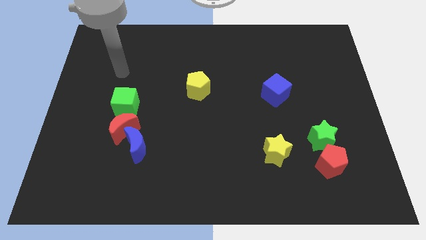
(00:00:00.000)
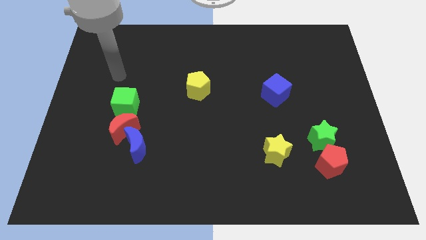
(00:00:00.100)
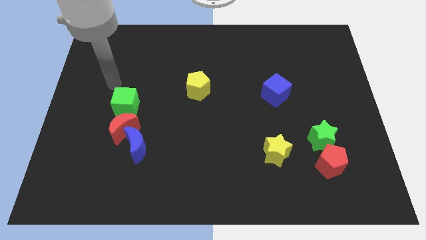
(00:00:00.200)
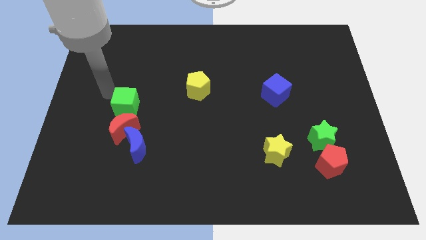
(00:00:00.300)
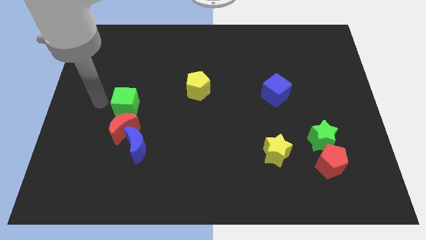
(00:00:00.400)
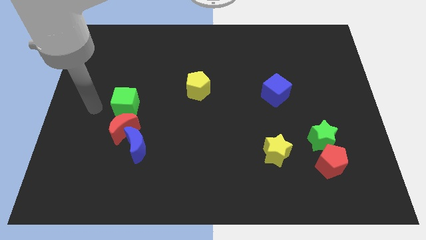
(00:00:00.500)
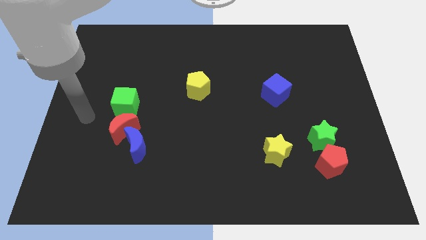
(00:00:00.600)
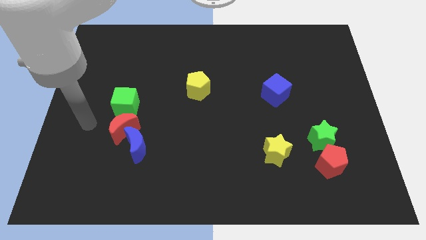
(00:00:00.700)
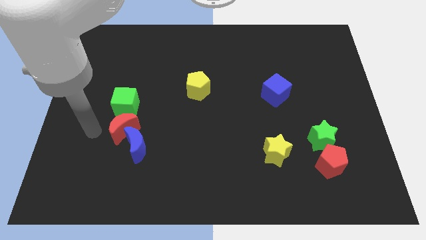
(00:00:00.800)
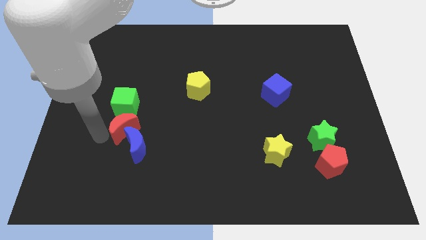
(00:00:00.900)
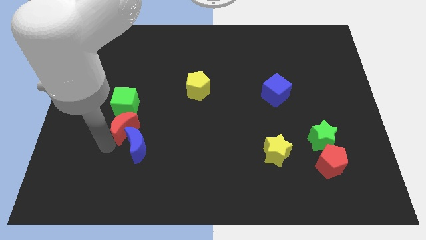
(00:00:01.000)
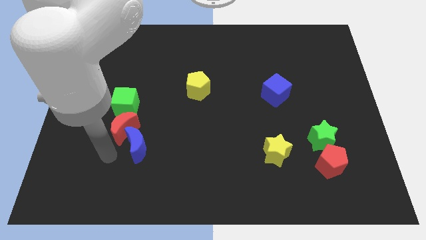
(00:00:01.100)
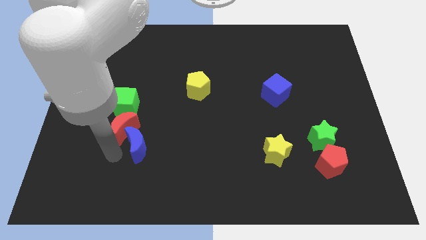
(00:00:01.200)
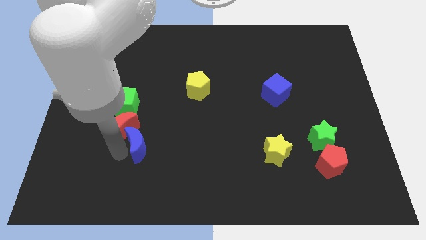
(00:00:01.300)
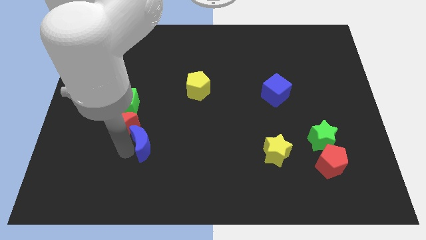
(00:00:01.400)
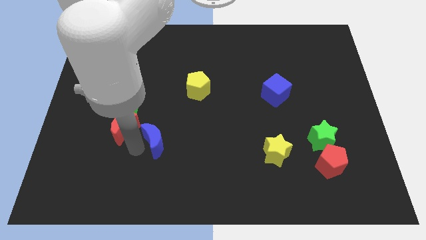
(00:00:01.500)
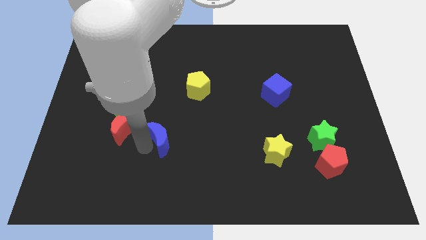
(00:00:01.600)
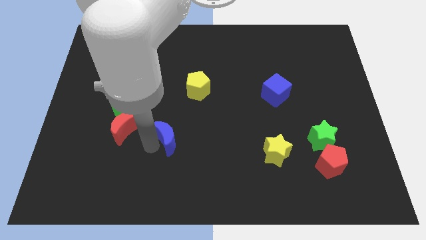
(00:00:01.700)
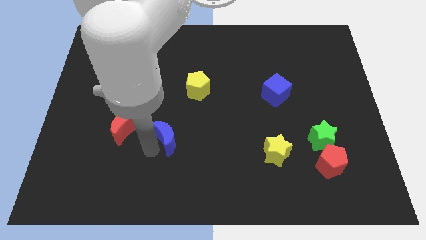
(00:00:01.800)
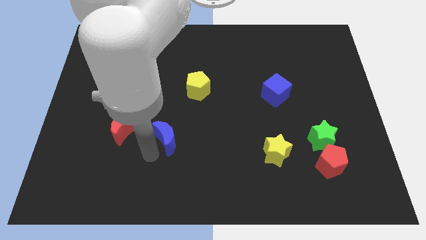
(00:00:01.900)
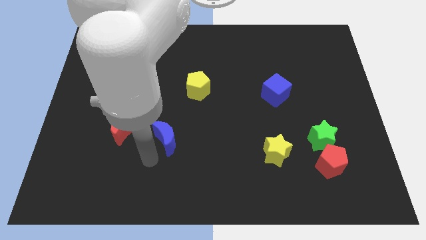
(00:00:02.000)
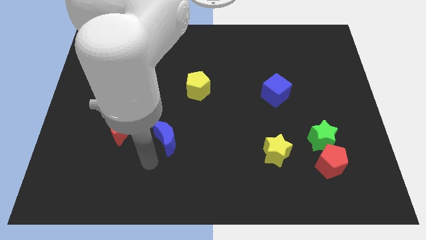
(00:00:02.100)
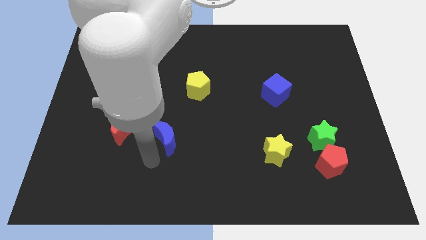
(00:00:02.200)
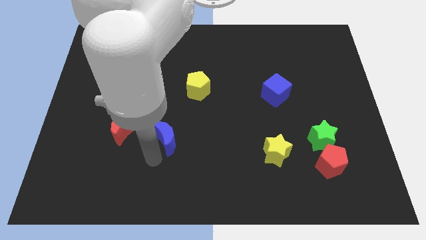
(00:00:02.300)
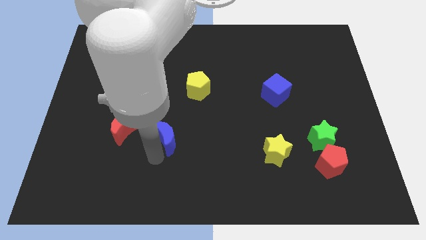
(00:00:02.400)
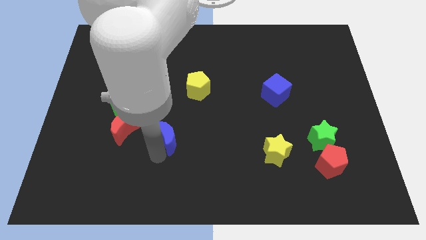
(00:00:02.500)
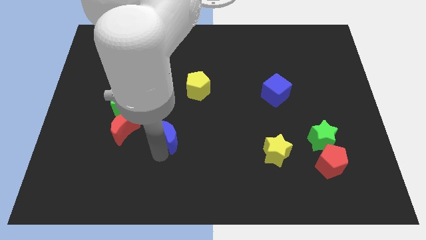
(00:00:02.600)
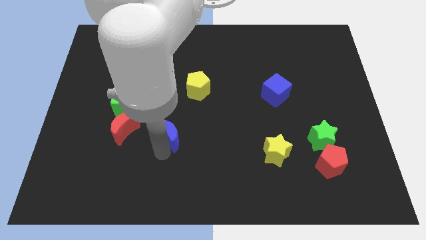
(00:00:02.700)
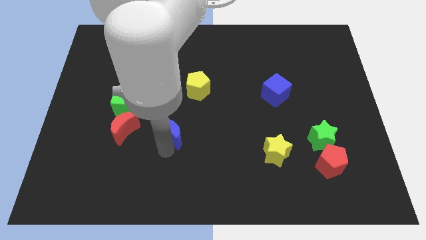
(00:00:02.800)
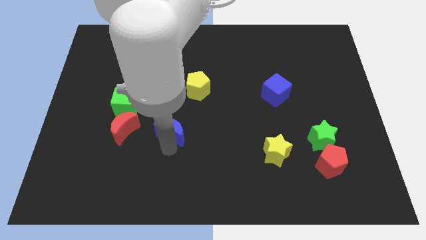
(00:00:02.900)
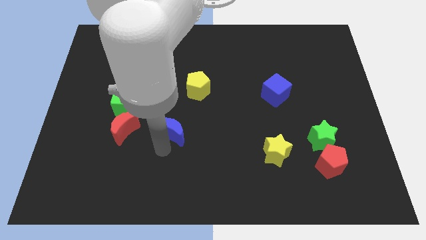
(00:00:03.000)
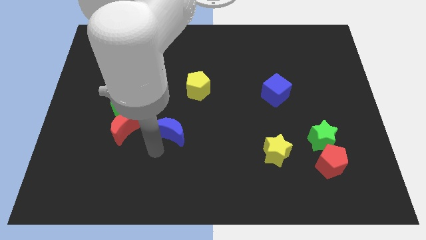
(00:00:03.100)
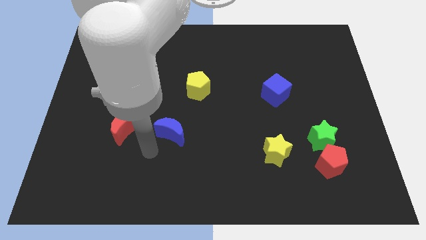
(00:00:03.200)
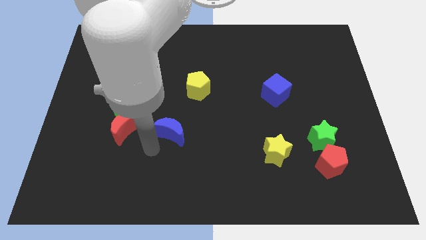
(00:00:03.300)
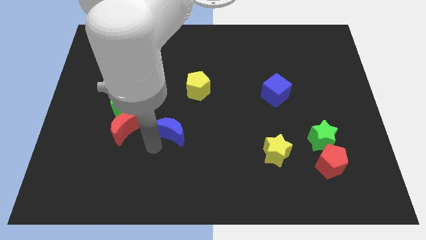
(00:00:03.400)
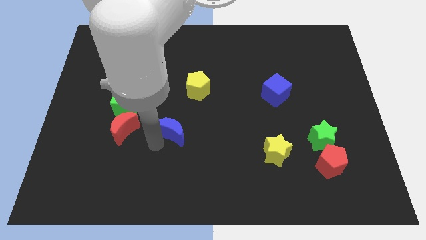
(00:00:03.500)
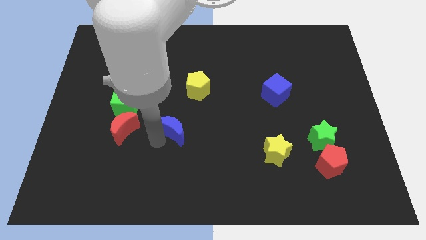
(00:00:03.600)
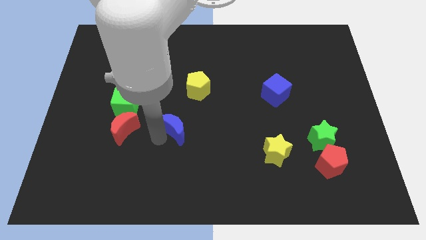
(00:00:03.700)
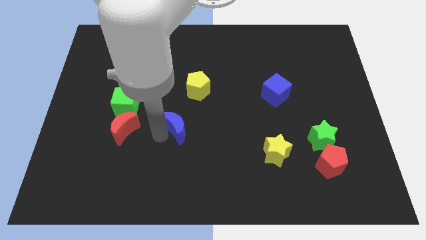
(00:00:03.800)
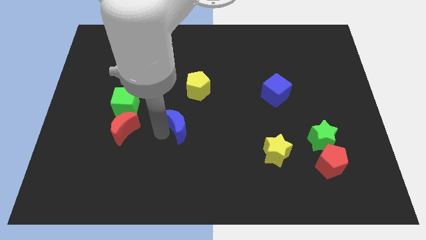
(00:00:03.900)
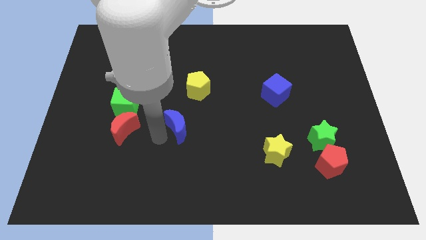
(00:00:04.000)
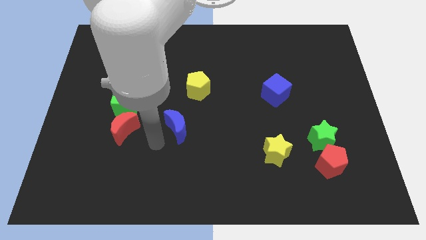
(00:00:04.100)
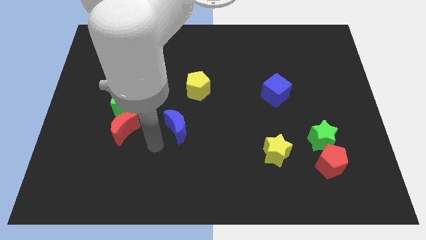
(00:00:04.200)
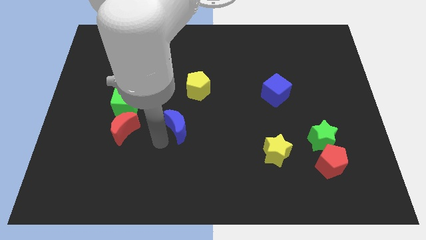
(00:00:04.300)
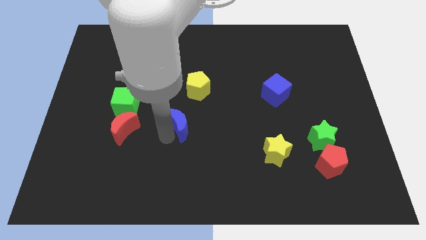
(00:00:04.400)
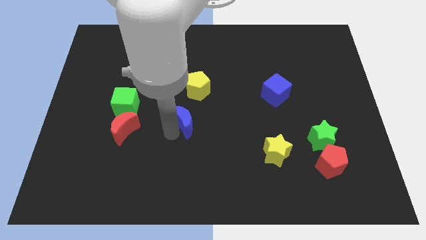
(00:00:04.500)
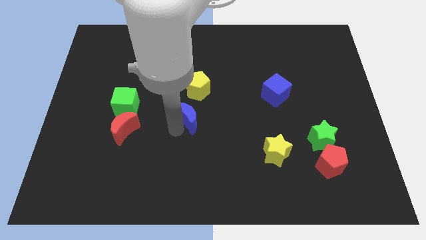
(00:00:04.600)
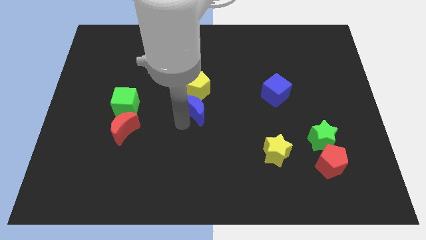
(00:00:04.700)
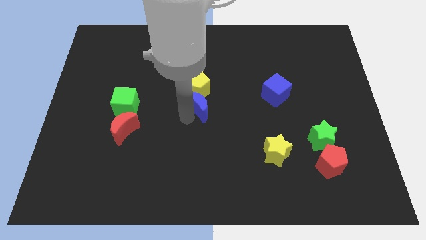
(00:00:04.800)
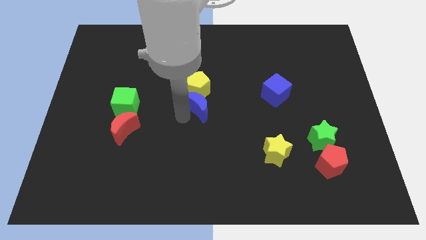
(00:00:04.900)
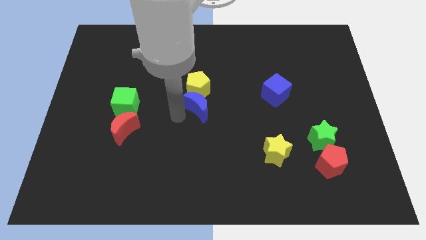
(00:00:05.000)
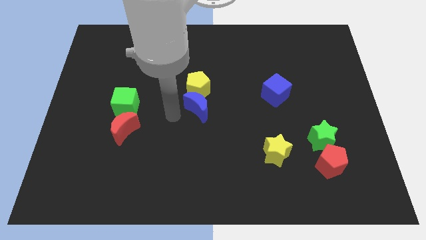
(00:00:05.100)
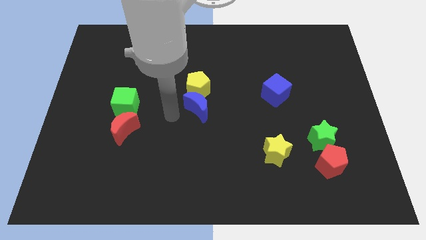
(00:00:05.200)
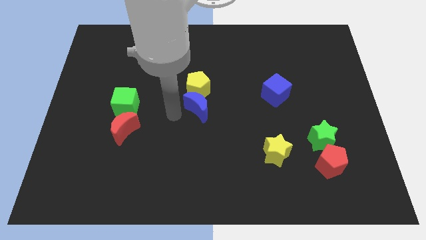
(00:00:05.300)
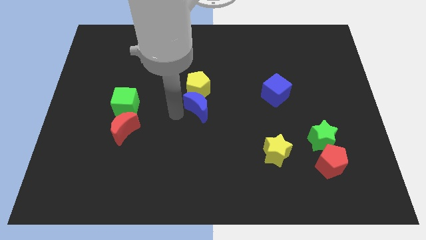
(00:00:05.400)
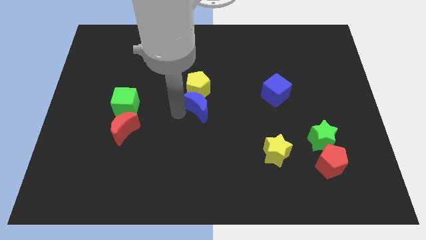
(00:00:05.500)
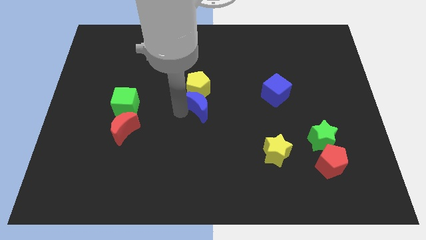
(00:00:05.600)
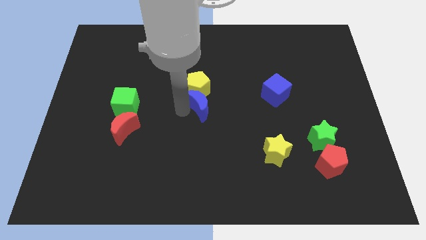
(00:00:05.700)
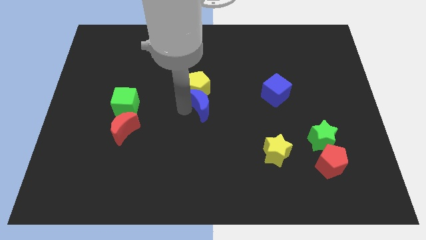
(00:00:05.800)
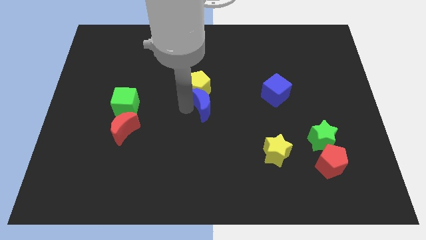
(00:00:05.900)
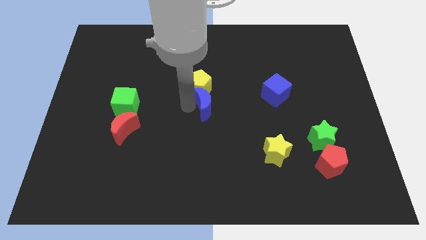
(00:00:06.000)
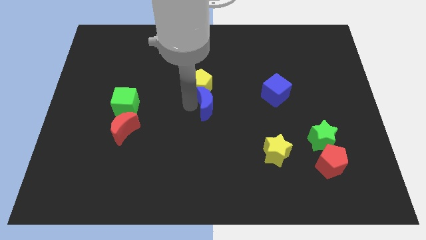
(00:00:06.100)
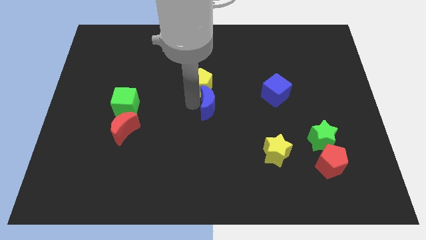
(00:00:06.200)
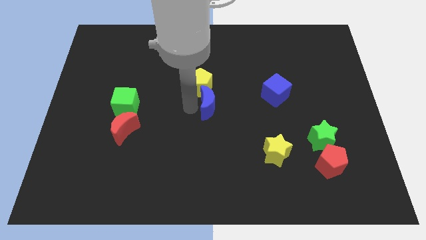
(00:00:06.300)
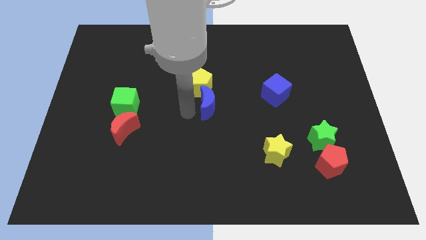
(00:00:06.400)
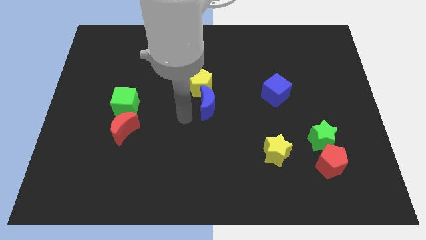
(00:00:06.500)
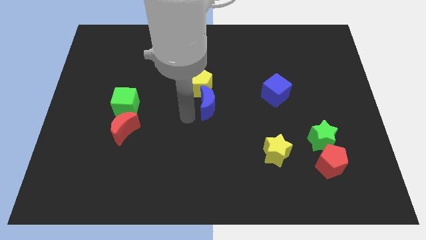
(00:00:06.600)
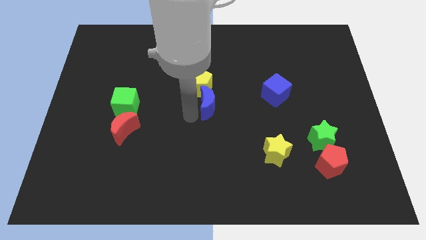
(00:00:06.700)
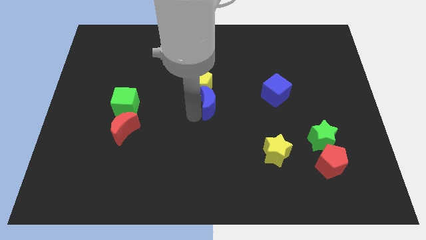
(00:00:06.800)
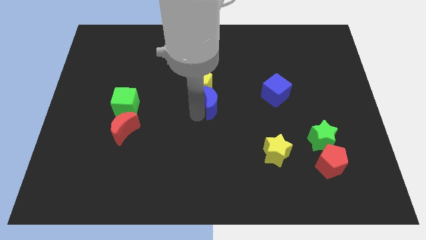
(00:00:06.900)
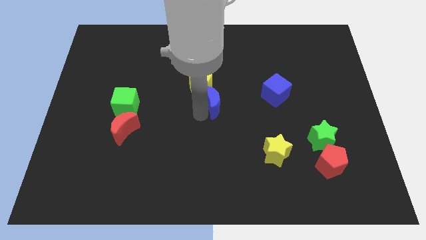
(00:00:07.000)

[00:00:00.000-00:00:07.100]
push the blue moon to the left of the blue cube

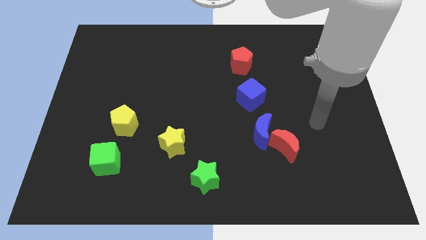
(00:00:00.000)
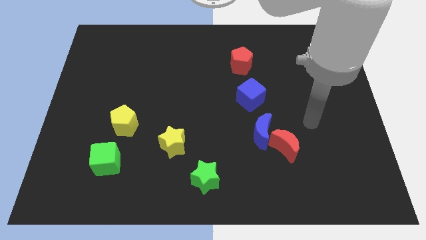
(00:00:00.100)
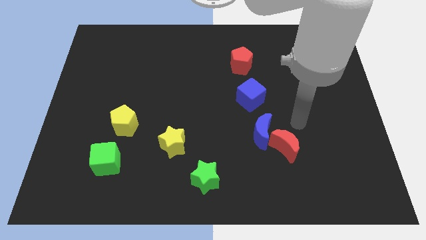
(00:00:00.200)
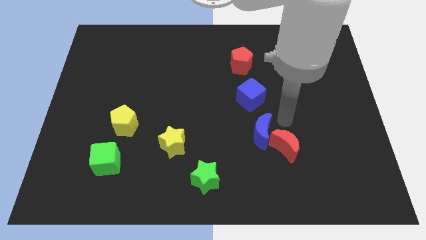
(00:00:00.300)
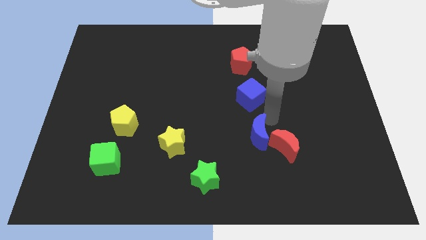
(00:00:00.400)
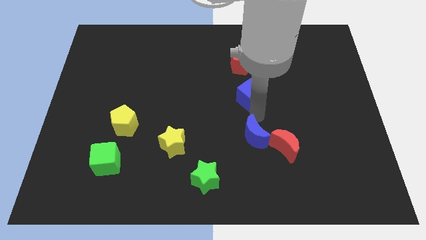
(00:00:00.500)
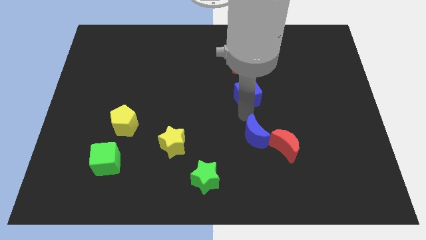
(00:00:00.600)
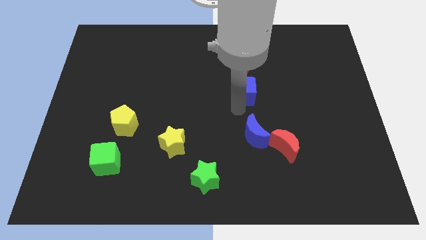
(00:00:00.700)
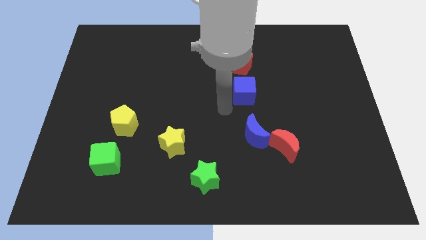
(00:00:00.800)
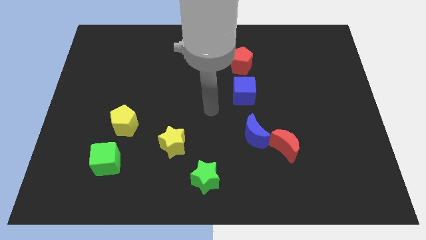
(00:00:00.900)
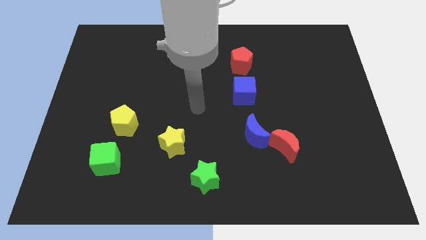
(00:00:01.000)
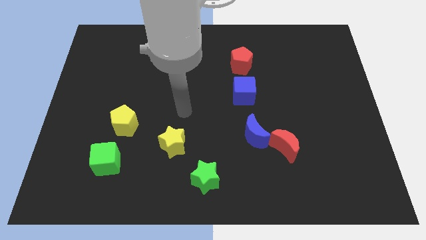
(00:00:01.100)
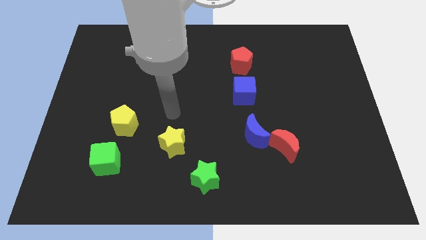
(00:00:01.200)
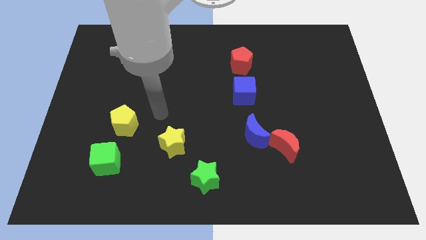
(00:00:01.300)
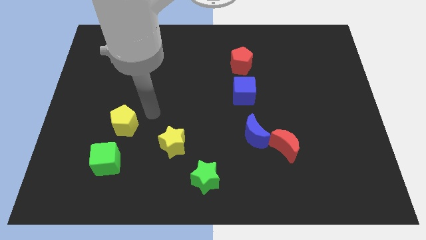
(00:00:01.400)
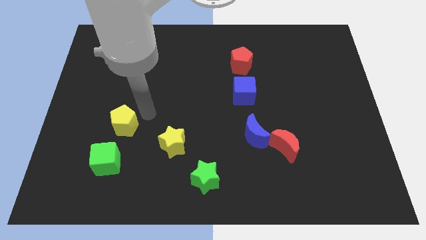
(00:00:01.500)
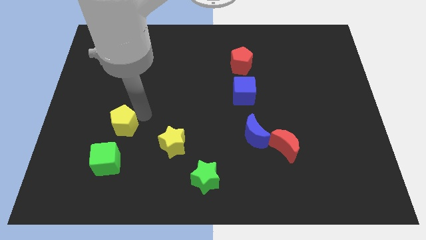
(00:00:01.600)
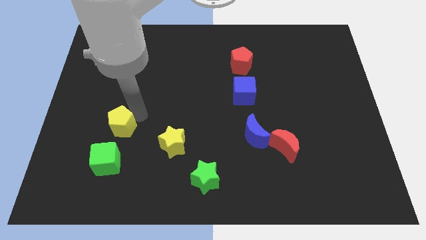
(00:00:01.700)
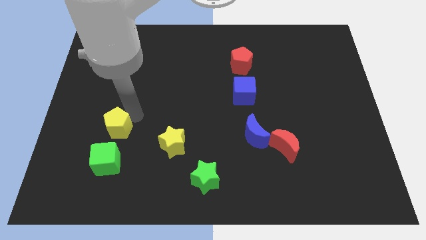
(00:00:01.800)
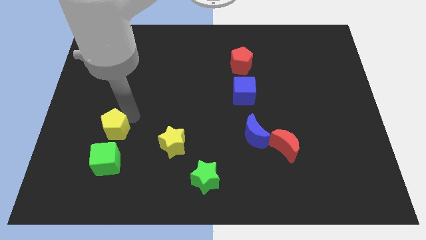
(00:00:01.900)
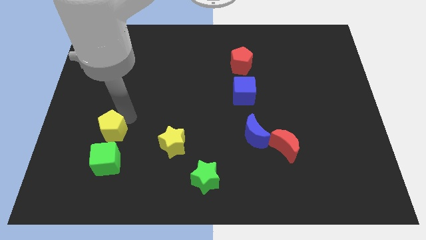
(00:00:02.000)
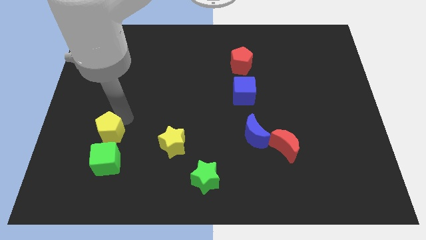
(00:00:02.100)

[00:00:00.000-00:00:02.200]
move the yellow pentagon to the top left side of the green cube
